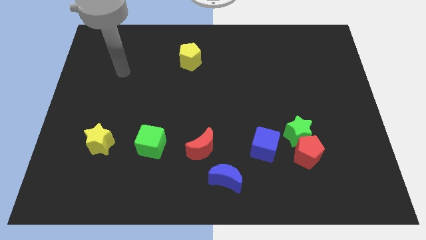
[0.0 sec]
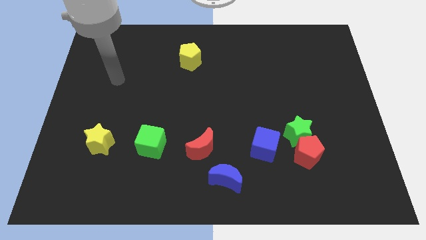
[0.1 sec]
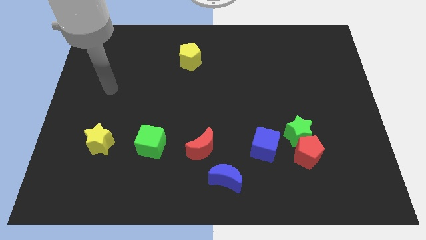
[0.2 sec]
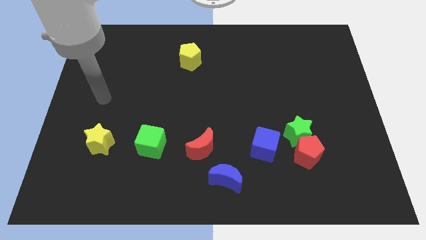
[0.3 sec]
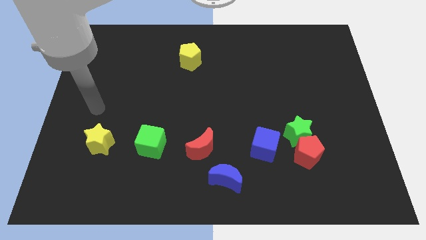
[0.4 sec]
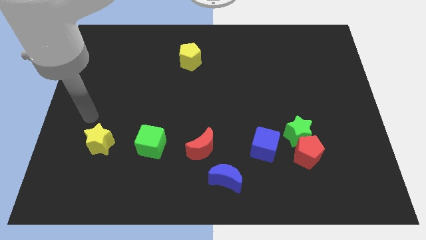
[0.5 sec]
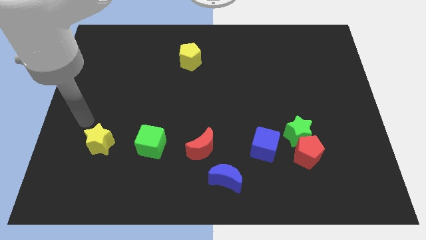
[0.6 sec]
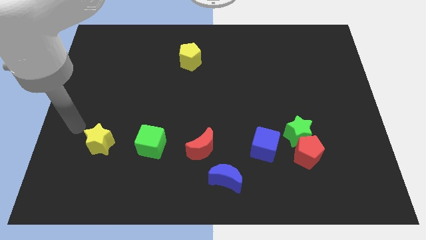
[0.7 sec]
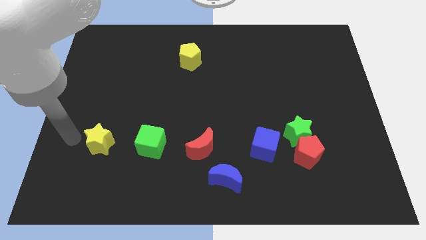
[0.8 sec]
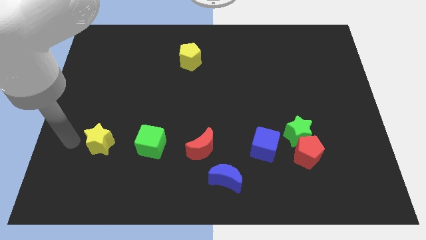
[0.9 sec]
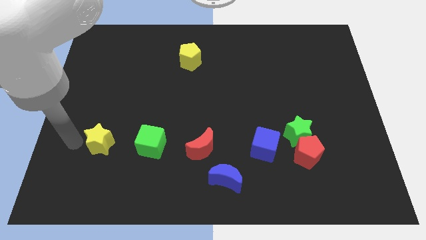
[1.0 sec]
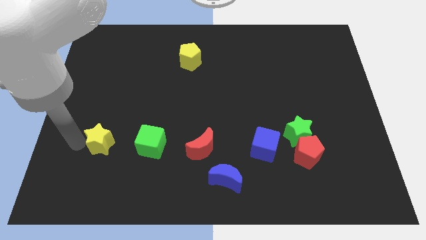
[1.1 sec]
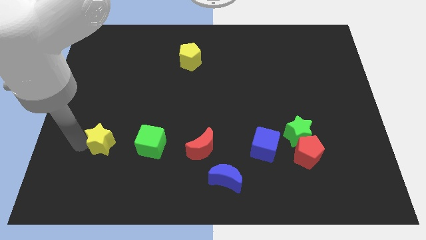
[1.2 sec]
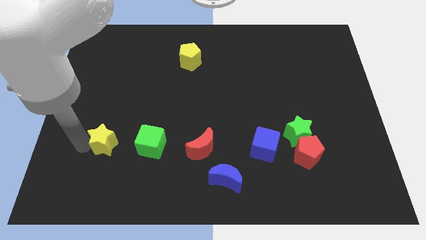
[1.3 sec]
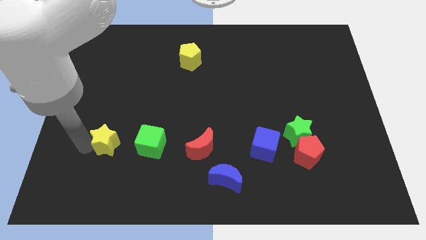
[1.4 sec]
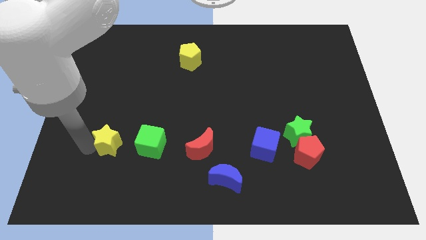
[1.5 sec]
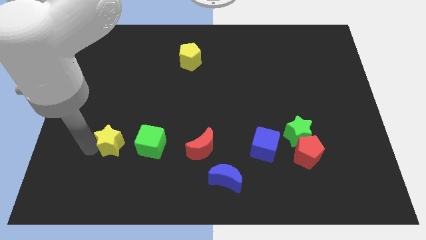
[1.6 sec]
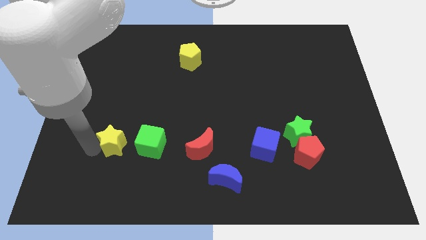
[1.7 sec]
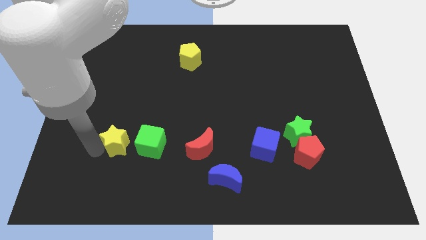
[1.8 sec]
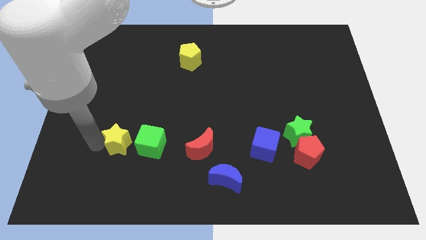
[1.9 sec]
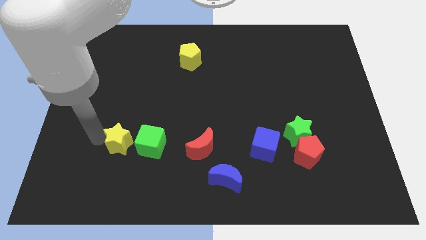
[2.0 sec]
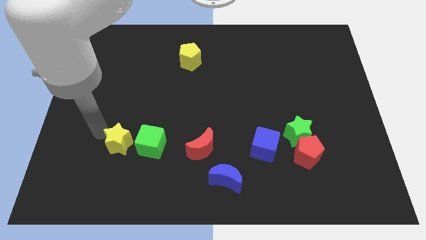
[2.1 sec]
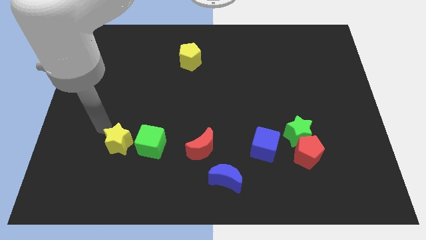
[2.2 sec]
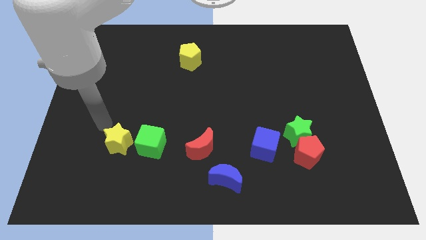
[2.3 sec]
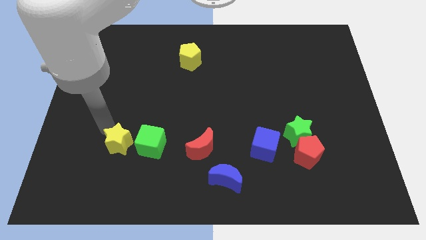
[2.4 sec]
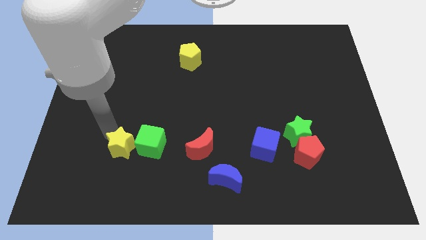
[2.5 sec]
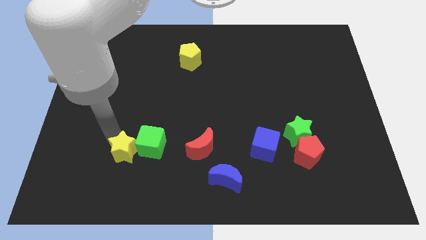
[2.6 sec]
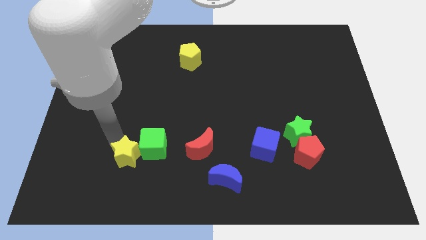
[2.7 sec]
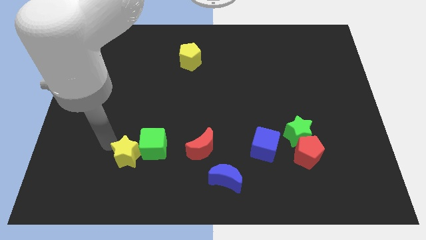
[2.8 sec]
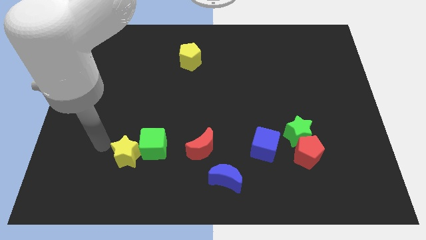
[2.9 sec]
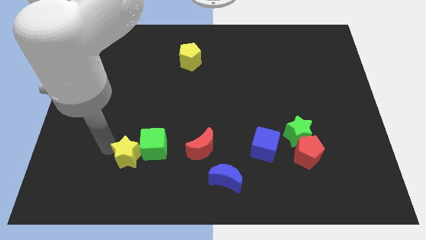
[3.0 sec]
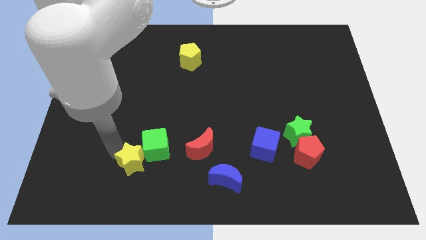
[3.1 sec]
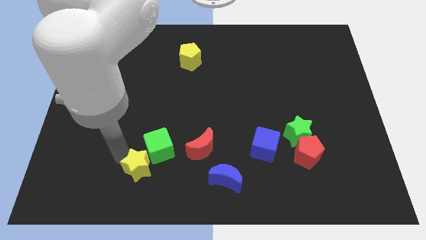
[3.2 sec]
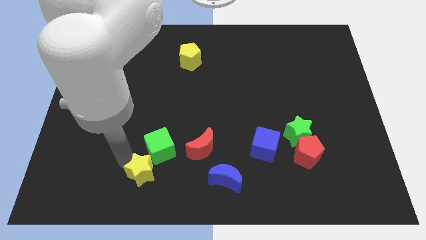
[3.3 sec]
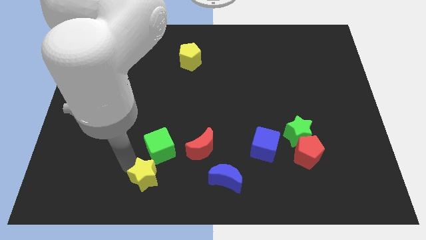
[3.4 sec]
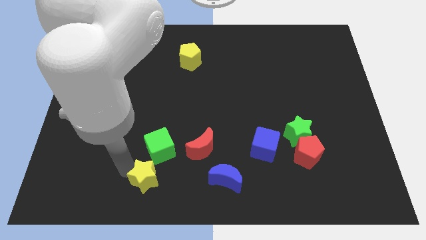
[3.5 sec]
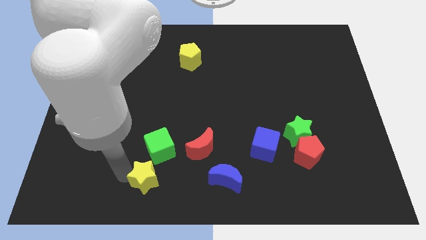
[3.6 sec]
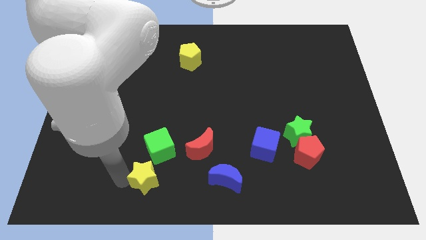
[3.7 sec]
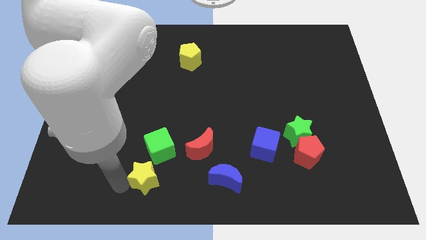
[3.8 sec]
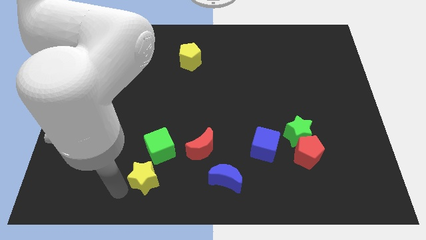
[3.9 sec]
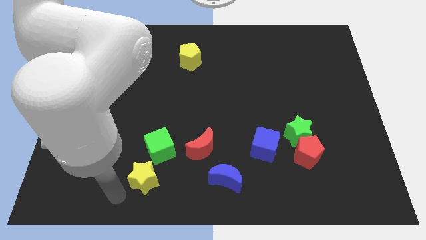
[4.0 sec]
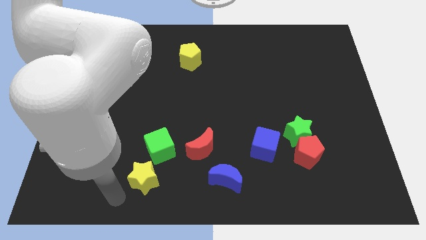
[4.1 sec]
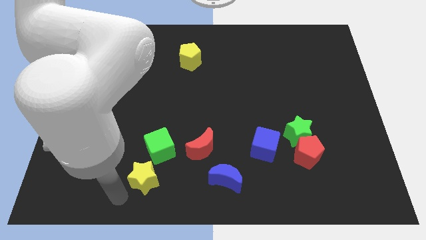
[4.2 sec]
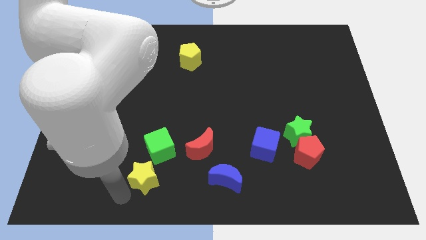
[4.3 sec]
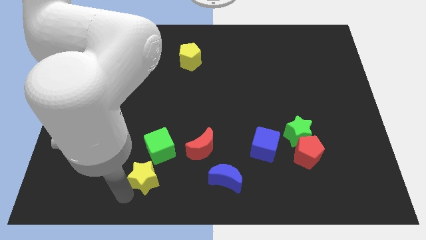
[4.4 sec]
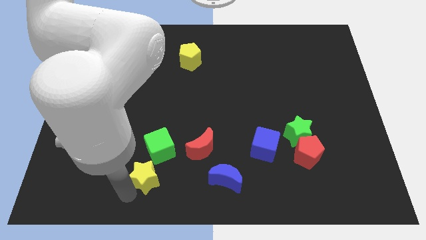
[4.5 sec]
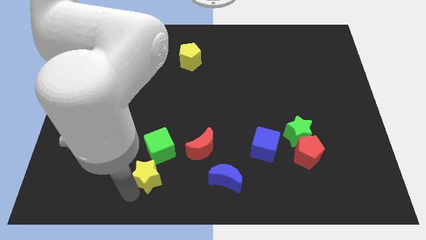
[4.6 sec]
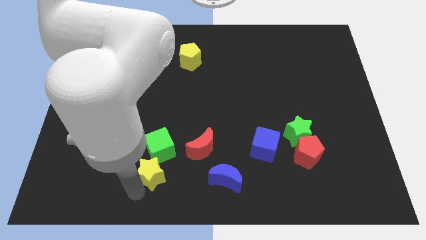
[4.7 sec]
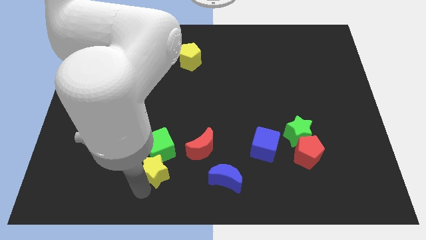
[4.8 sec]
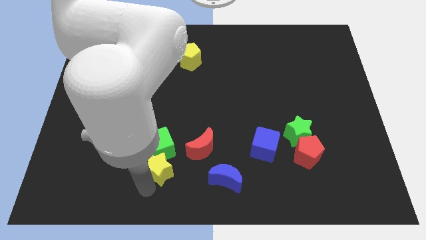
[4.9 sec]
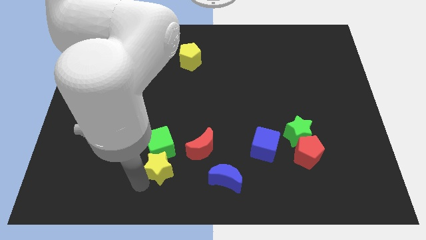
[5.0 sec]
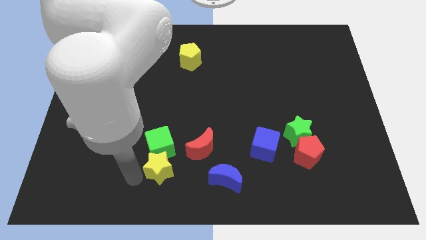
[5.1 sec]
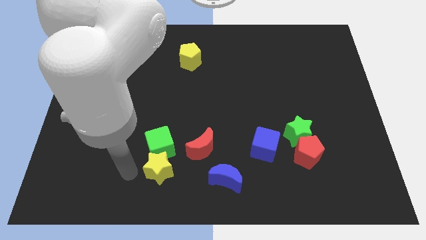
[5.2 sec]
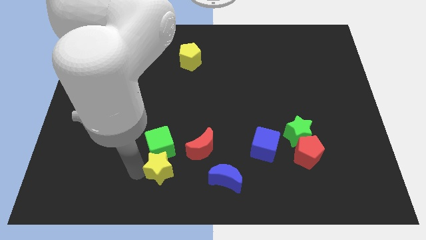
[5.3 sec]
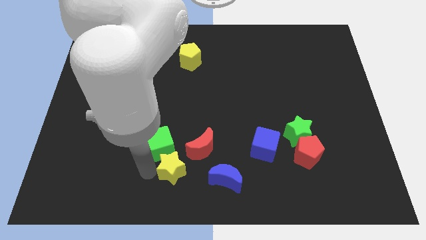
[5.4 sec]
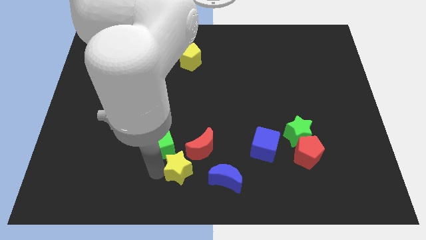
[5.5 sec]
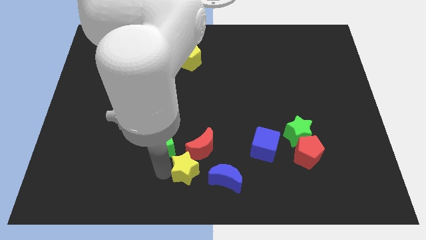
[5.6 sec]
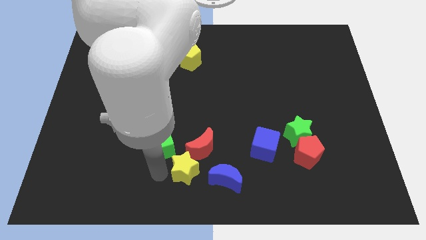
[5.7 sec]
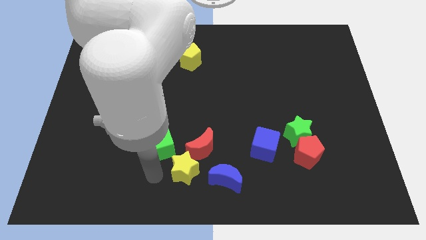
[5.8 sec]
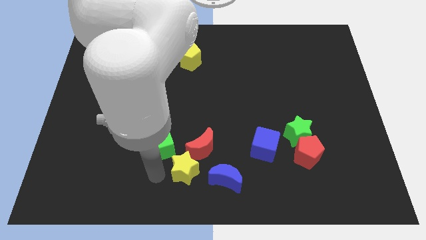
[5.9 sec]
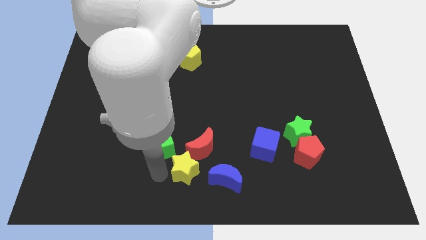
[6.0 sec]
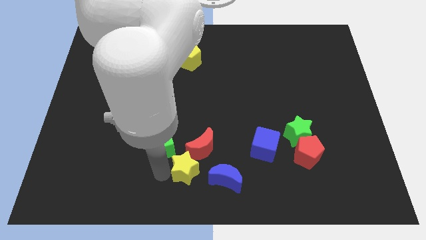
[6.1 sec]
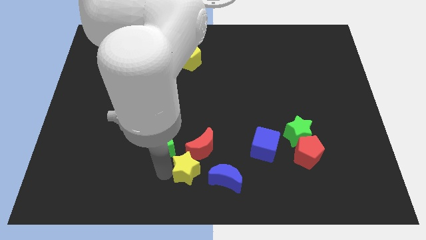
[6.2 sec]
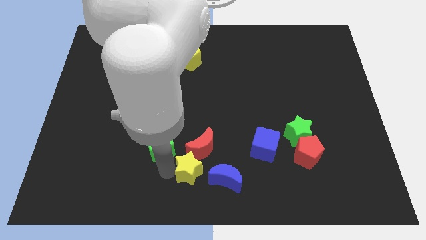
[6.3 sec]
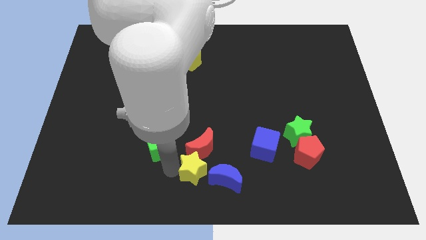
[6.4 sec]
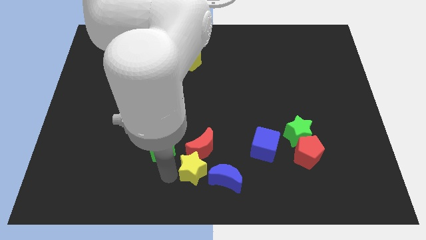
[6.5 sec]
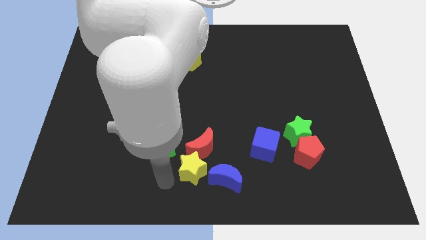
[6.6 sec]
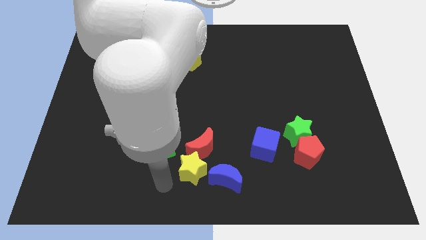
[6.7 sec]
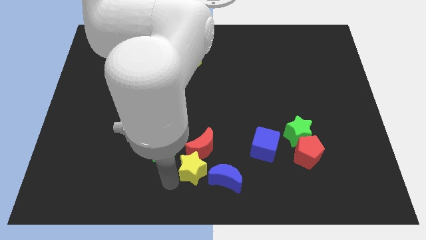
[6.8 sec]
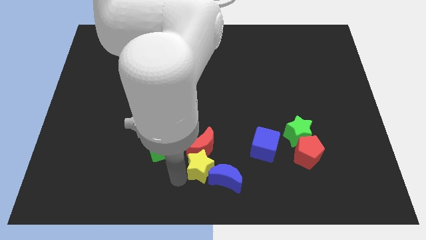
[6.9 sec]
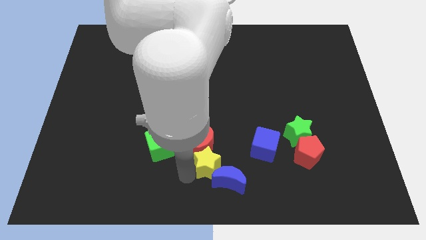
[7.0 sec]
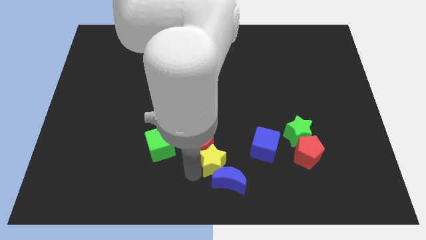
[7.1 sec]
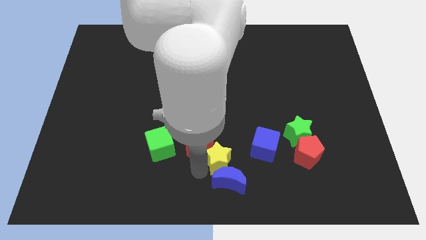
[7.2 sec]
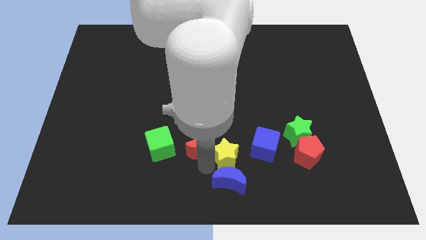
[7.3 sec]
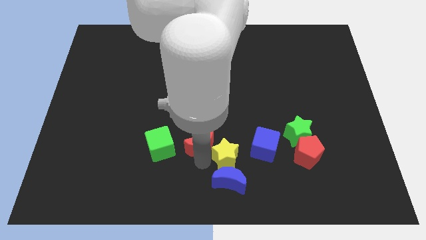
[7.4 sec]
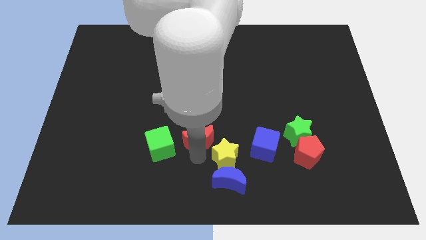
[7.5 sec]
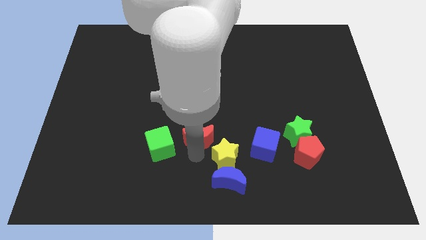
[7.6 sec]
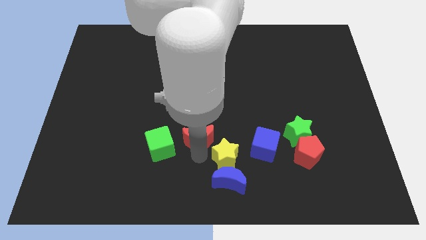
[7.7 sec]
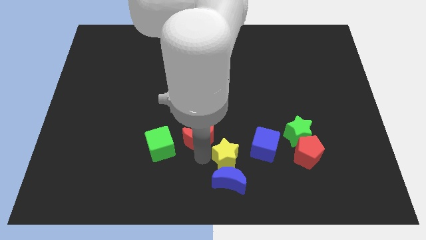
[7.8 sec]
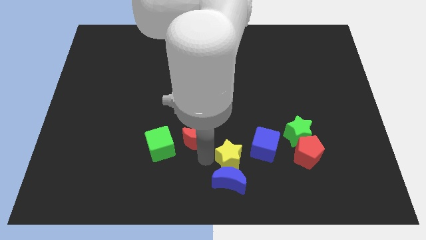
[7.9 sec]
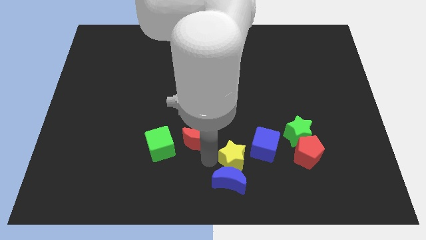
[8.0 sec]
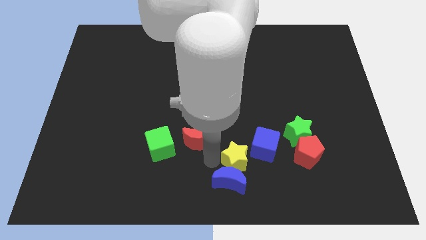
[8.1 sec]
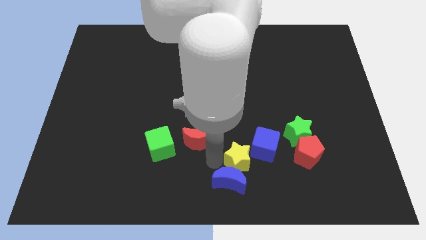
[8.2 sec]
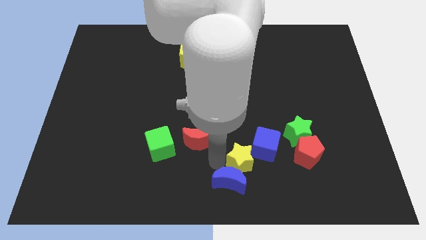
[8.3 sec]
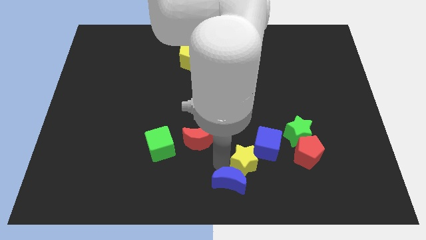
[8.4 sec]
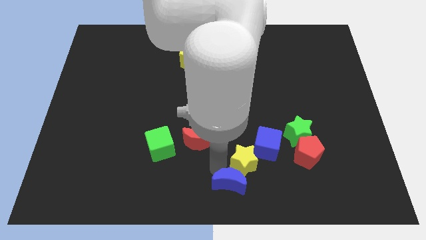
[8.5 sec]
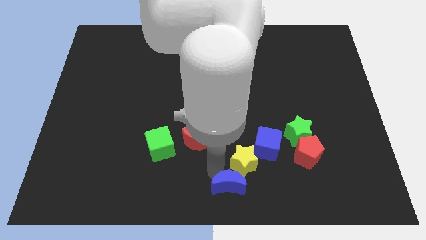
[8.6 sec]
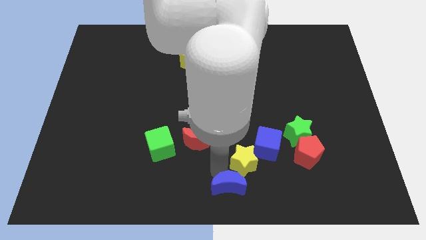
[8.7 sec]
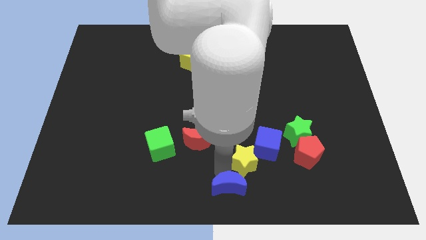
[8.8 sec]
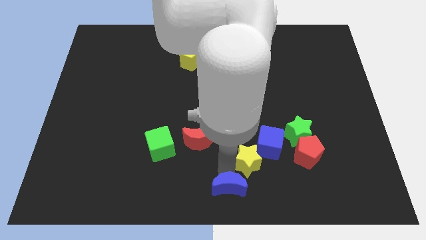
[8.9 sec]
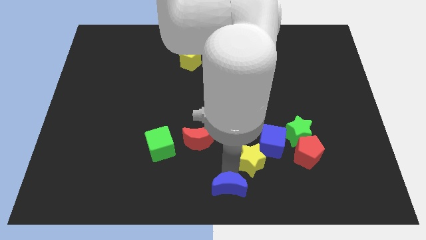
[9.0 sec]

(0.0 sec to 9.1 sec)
slide the yellow star to the bottom left of the green star
